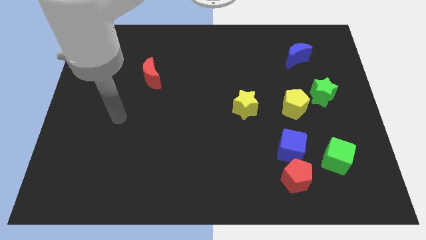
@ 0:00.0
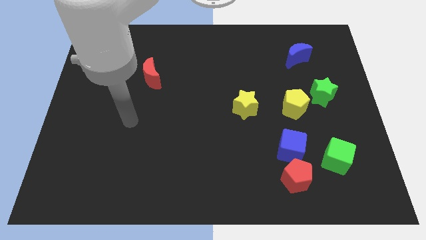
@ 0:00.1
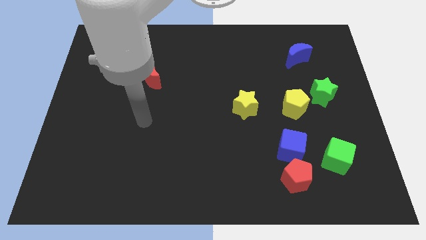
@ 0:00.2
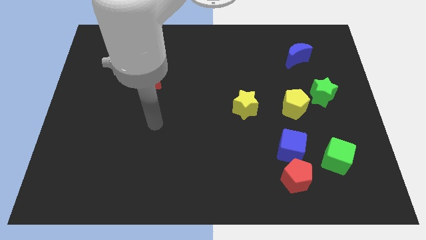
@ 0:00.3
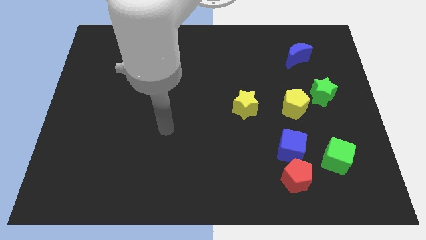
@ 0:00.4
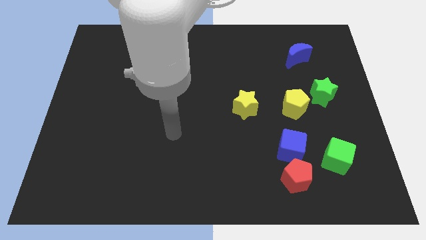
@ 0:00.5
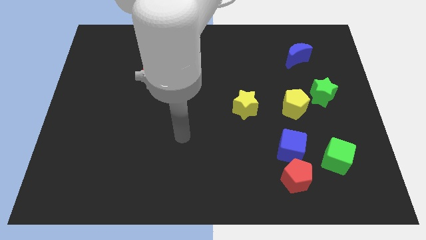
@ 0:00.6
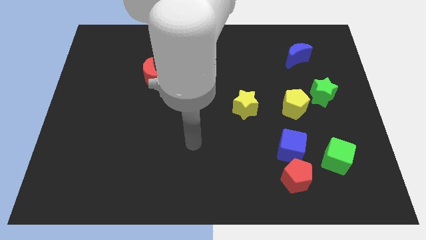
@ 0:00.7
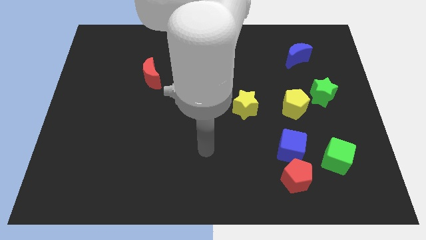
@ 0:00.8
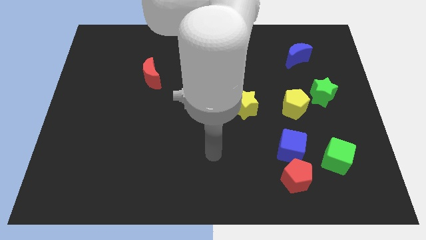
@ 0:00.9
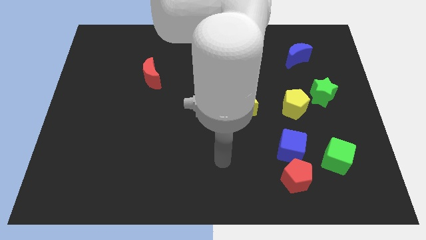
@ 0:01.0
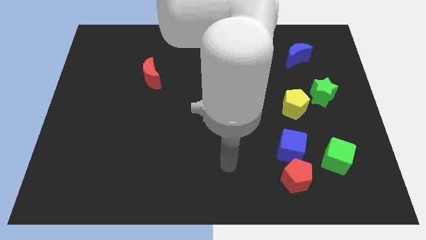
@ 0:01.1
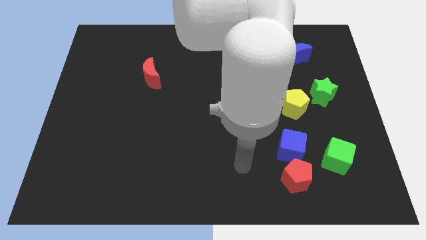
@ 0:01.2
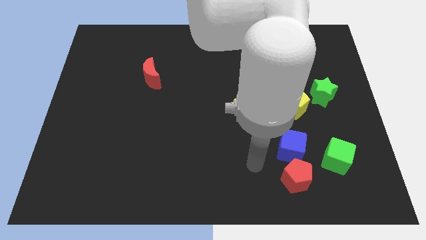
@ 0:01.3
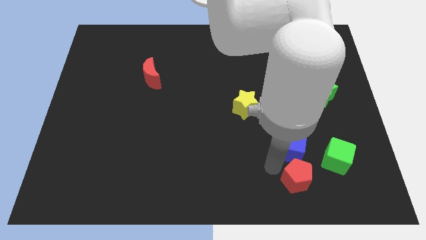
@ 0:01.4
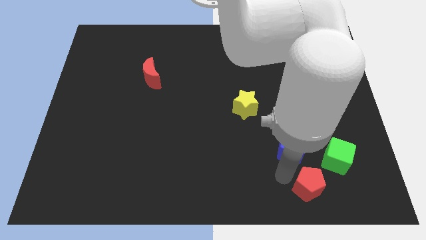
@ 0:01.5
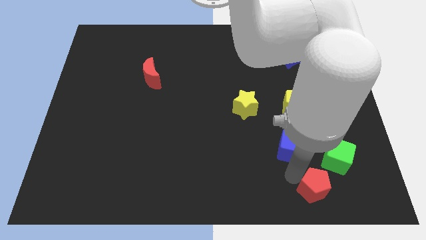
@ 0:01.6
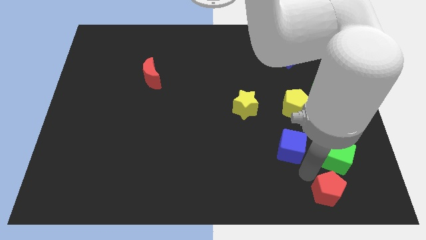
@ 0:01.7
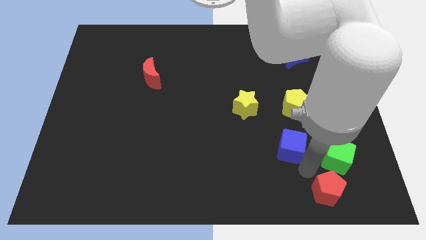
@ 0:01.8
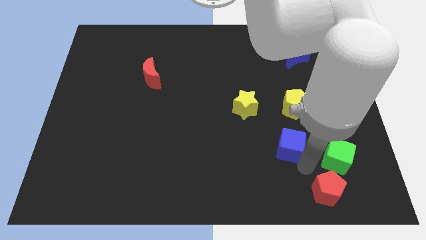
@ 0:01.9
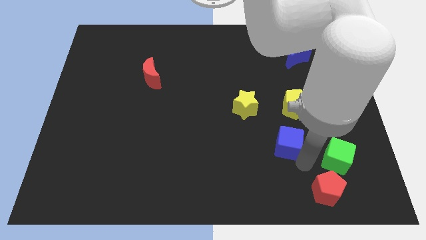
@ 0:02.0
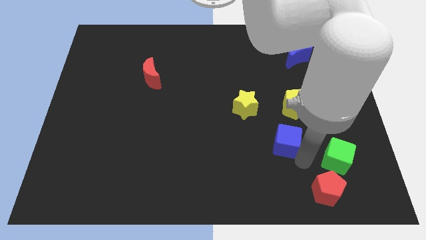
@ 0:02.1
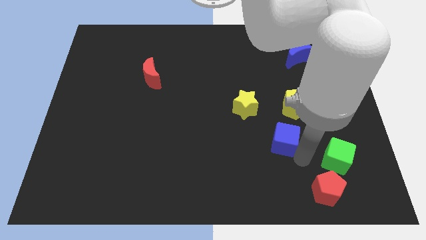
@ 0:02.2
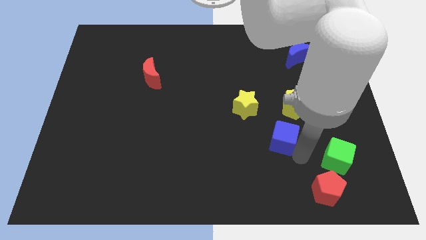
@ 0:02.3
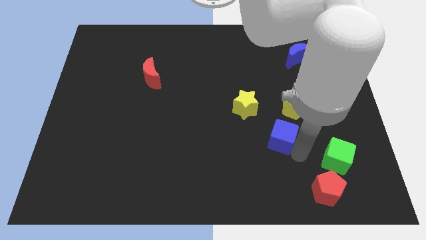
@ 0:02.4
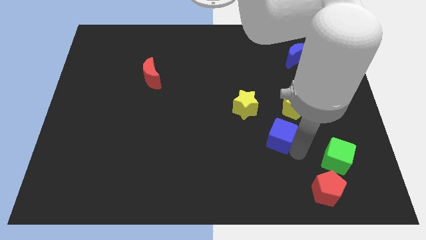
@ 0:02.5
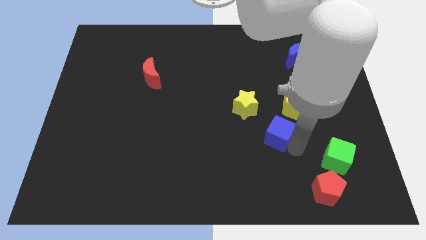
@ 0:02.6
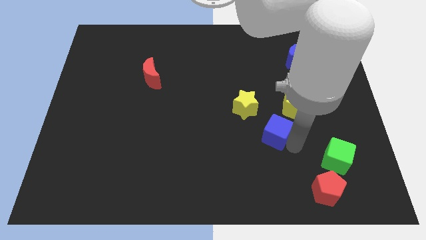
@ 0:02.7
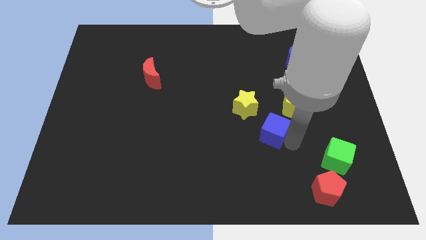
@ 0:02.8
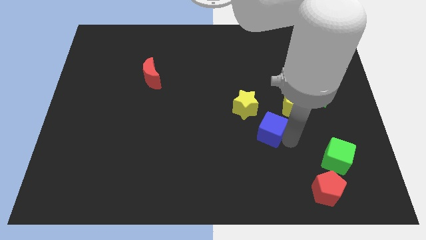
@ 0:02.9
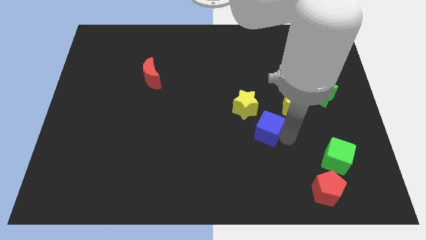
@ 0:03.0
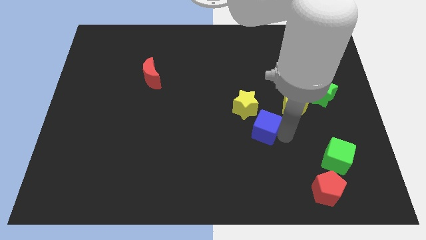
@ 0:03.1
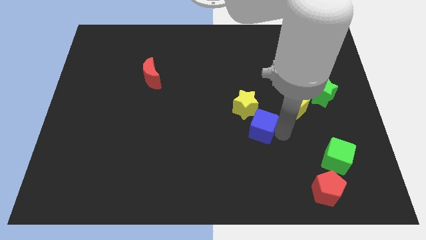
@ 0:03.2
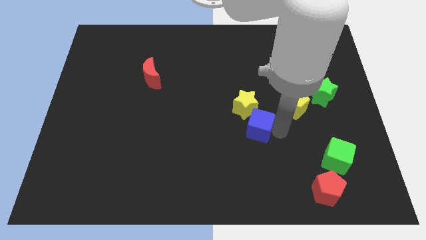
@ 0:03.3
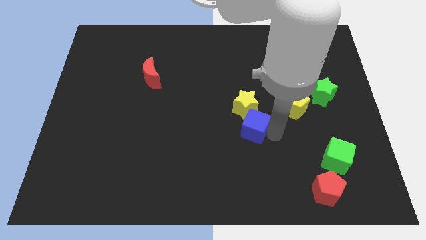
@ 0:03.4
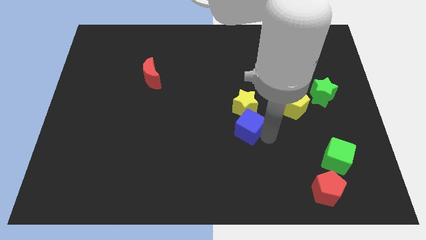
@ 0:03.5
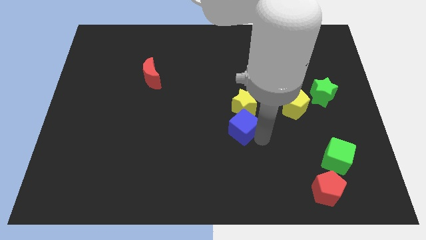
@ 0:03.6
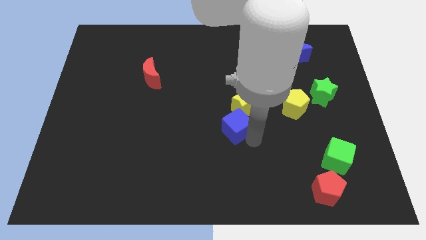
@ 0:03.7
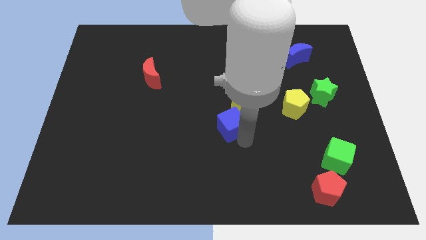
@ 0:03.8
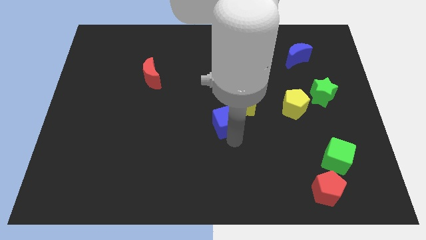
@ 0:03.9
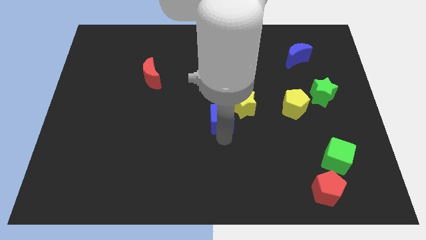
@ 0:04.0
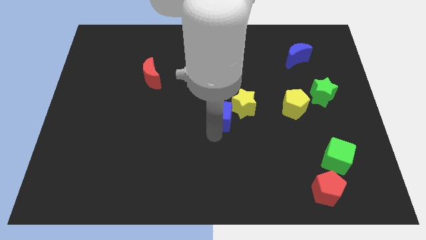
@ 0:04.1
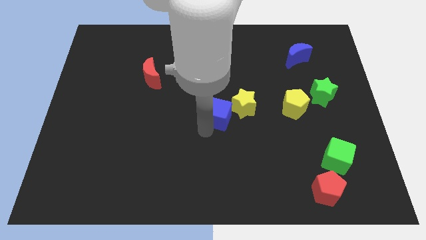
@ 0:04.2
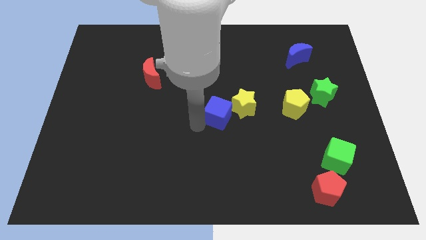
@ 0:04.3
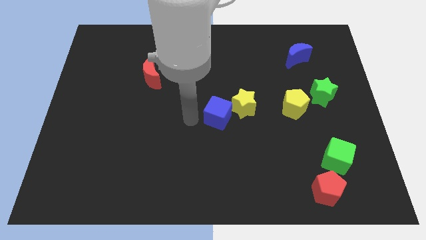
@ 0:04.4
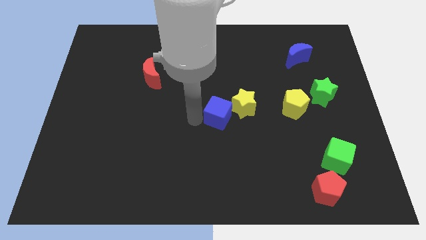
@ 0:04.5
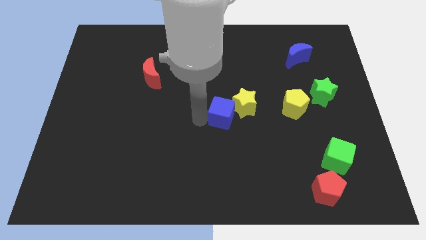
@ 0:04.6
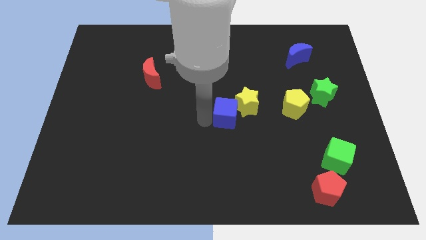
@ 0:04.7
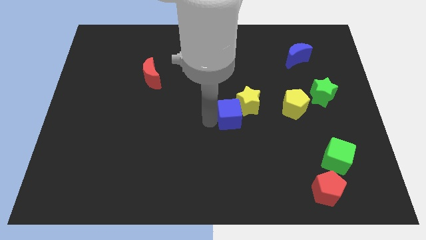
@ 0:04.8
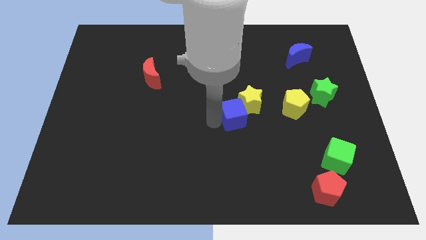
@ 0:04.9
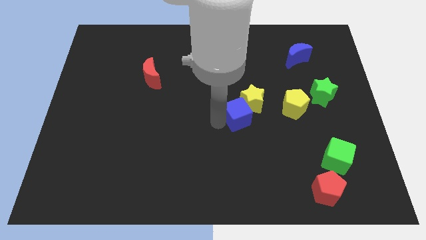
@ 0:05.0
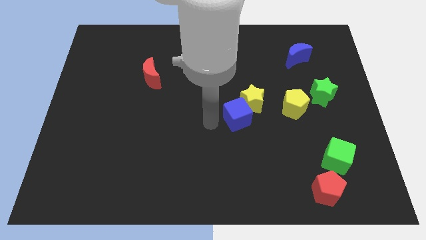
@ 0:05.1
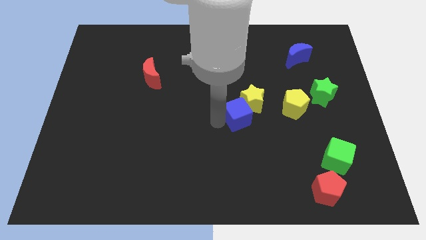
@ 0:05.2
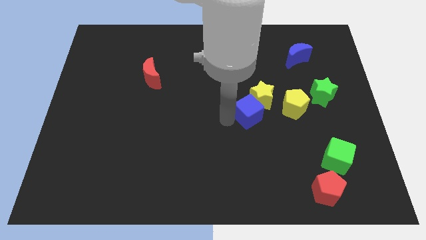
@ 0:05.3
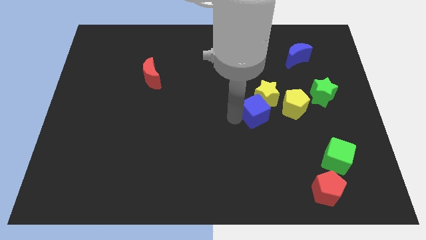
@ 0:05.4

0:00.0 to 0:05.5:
slightly push the blue cube up

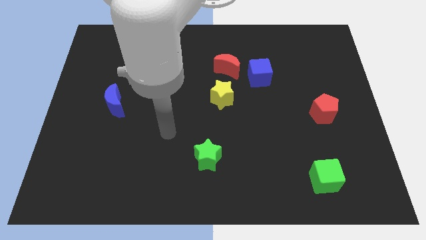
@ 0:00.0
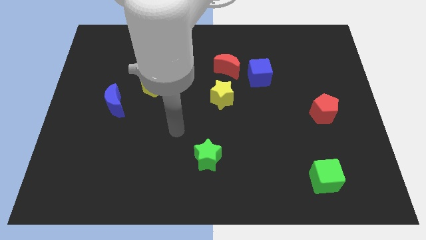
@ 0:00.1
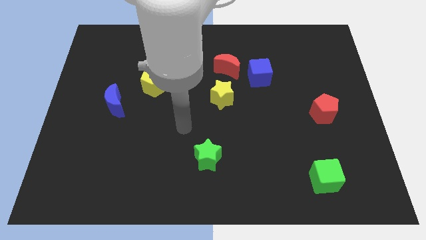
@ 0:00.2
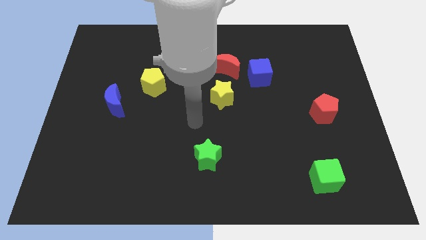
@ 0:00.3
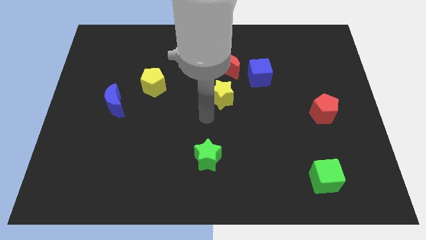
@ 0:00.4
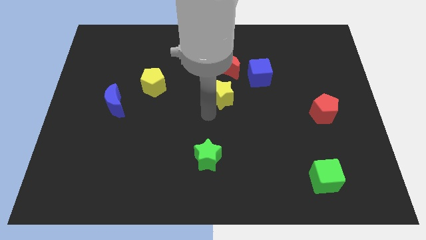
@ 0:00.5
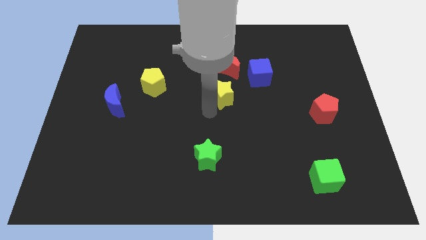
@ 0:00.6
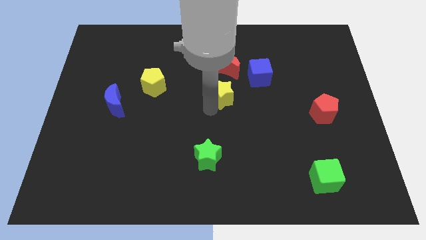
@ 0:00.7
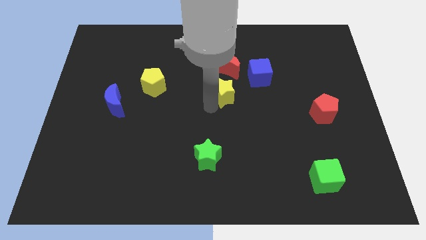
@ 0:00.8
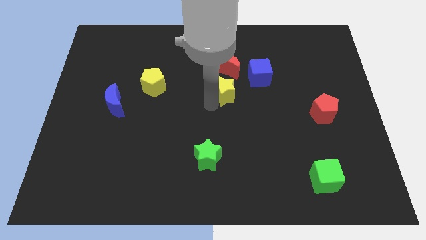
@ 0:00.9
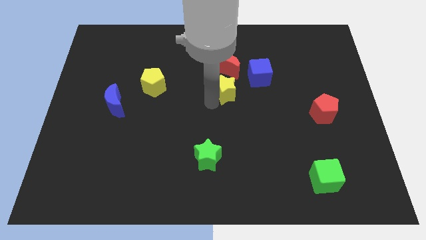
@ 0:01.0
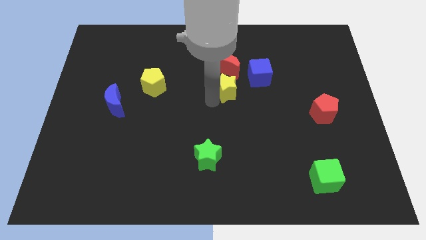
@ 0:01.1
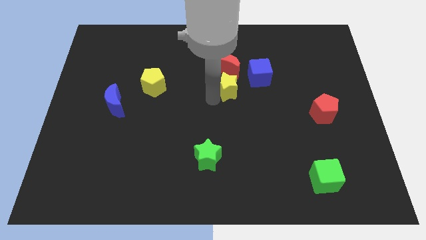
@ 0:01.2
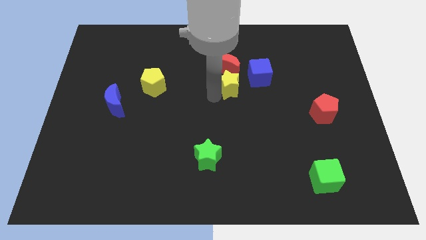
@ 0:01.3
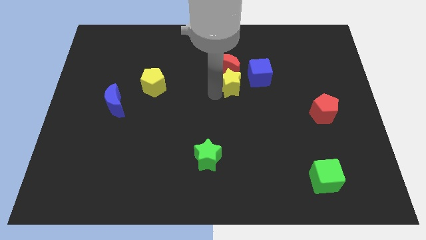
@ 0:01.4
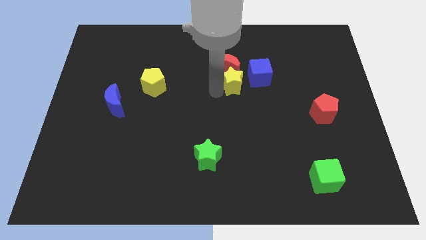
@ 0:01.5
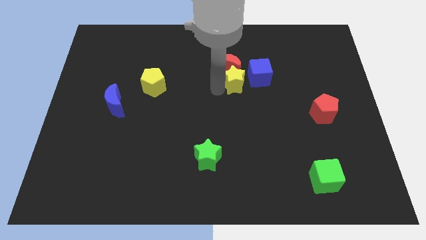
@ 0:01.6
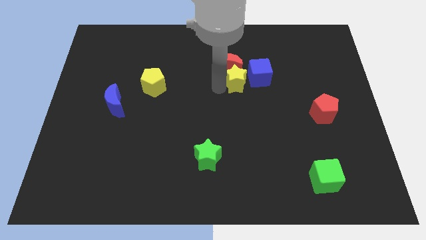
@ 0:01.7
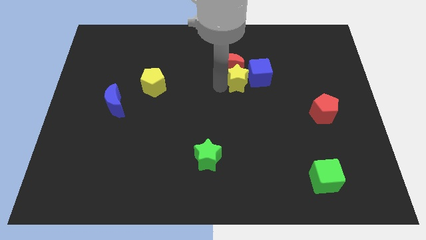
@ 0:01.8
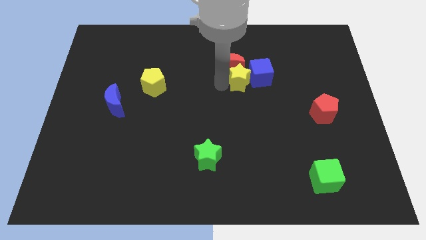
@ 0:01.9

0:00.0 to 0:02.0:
slightly move the yellow star up and right diagonally

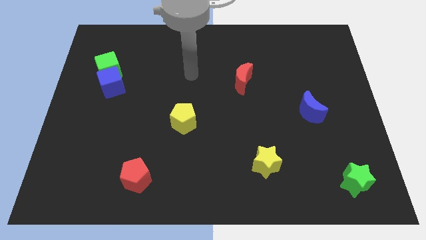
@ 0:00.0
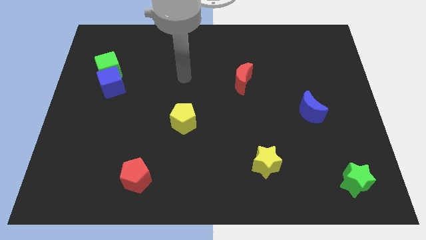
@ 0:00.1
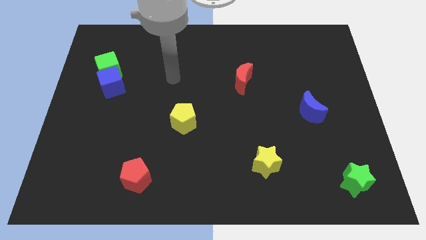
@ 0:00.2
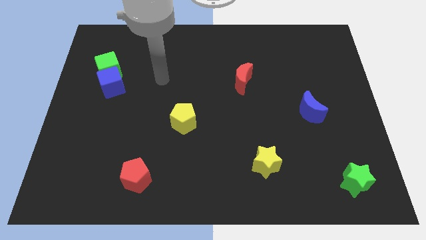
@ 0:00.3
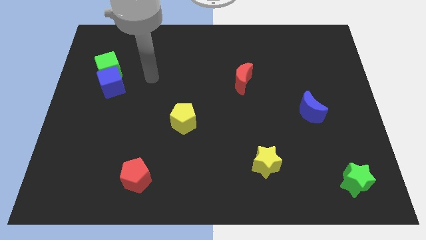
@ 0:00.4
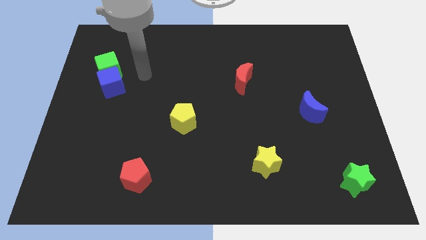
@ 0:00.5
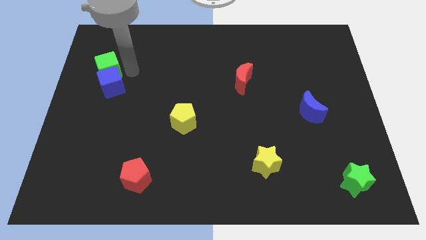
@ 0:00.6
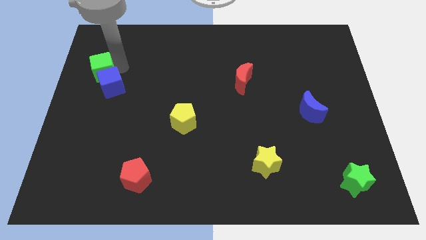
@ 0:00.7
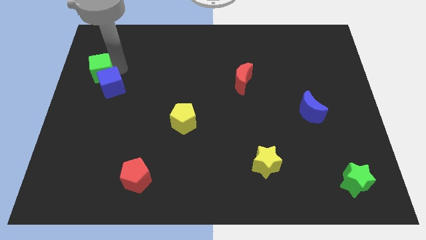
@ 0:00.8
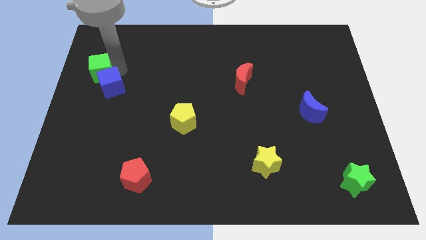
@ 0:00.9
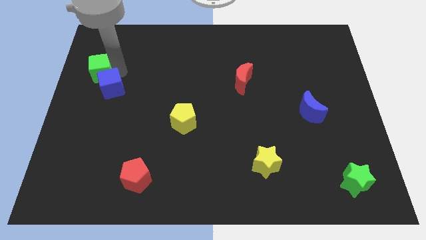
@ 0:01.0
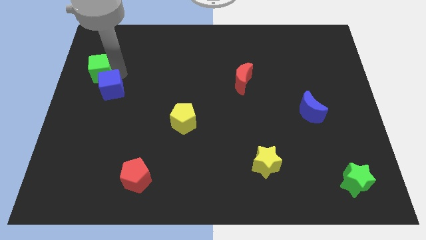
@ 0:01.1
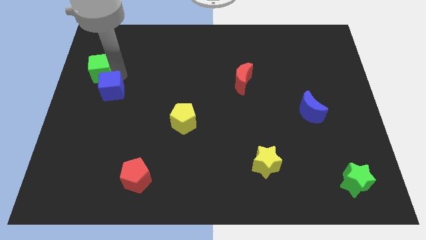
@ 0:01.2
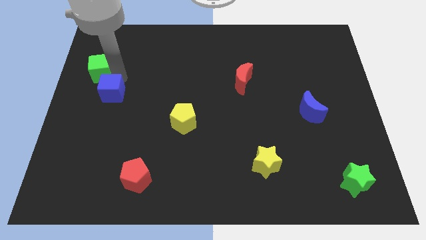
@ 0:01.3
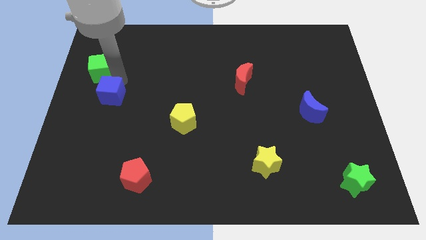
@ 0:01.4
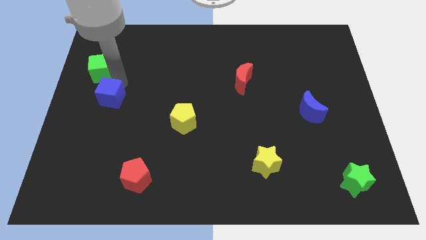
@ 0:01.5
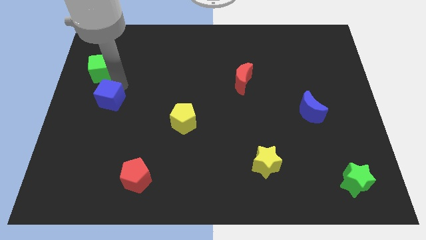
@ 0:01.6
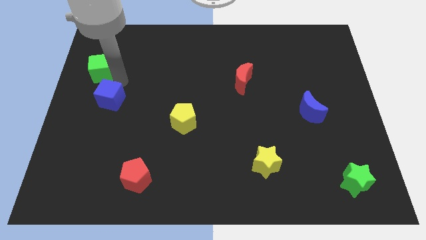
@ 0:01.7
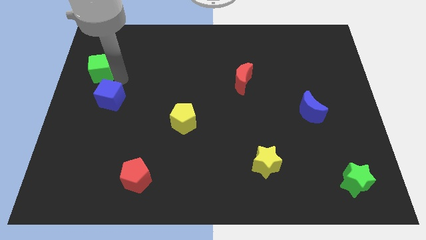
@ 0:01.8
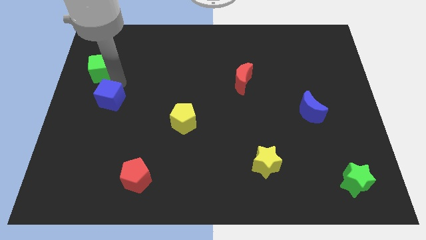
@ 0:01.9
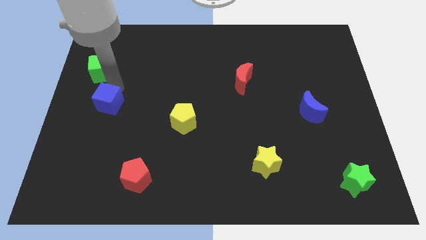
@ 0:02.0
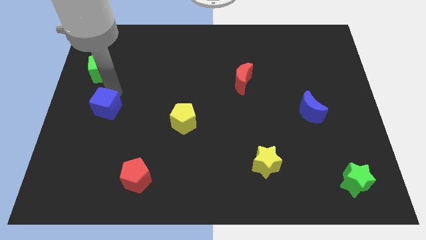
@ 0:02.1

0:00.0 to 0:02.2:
move the blue cube down somewhat
